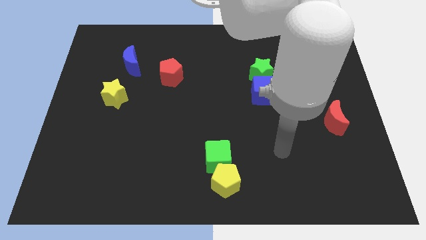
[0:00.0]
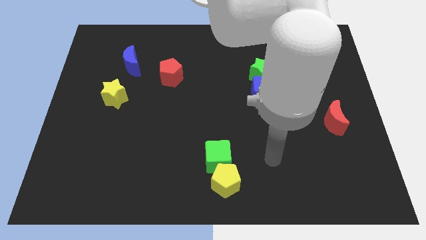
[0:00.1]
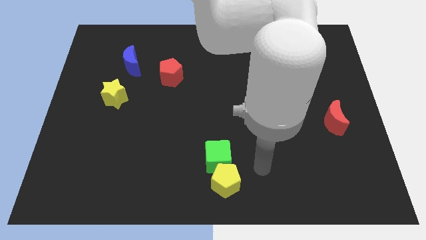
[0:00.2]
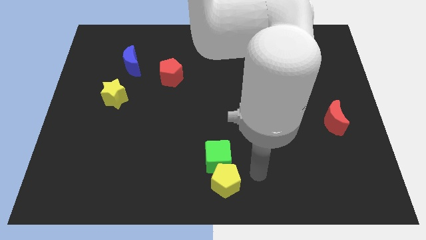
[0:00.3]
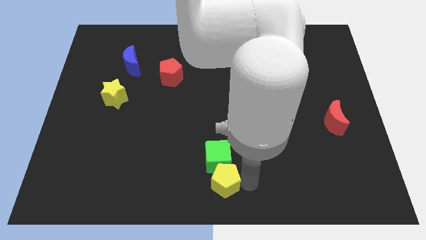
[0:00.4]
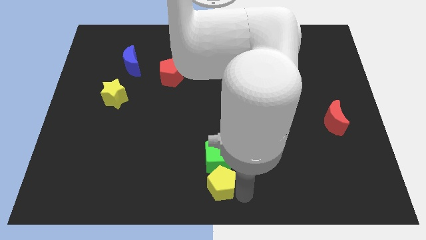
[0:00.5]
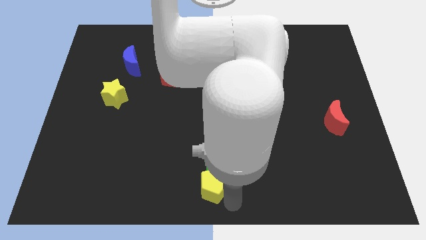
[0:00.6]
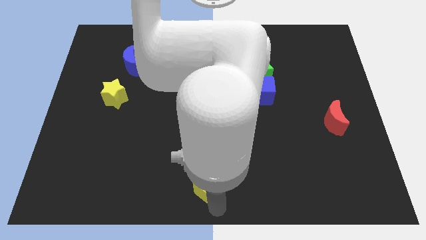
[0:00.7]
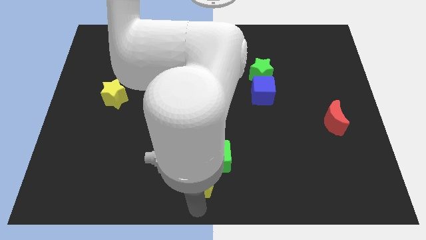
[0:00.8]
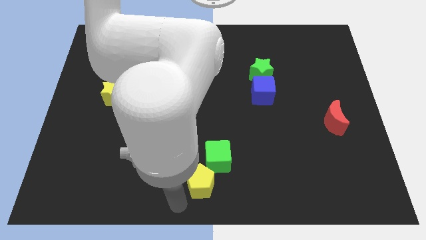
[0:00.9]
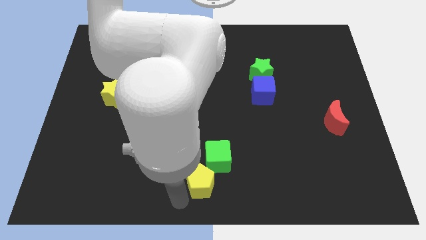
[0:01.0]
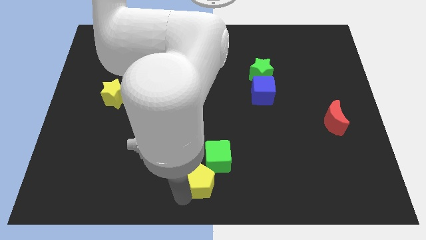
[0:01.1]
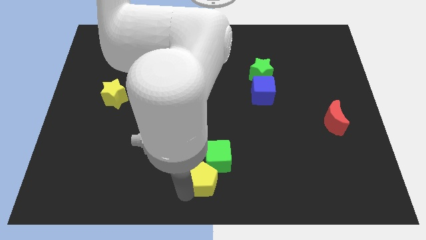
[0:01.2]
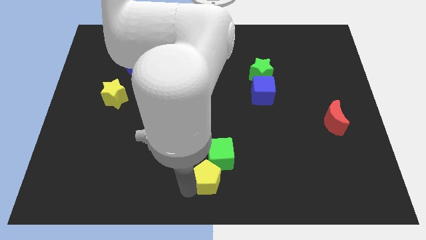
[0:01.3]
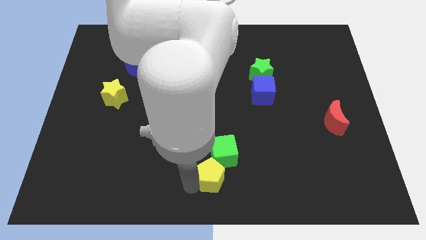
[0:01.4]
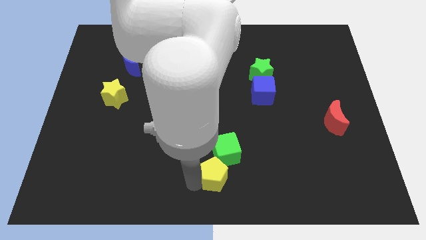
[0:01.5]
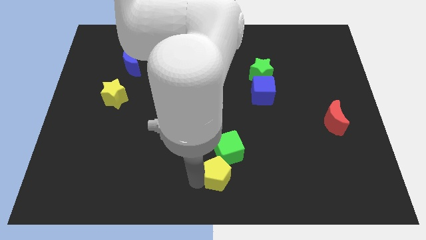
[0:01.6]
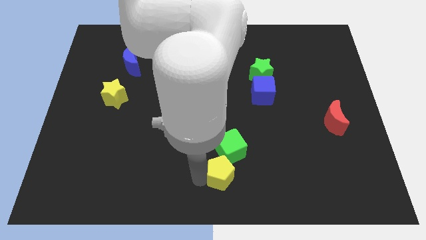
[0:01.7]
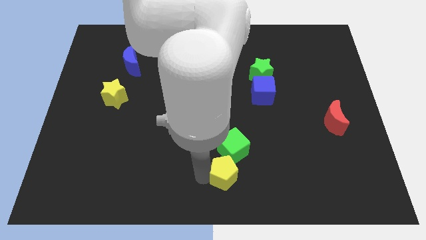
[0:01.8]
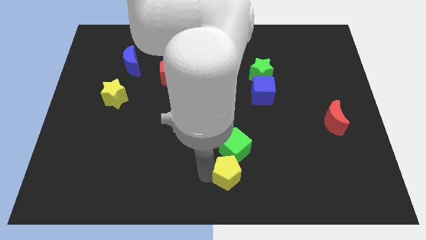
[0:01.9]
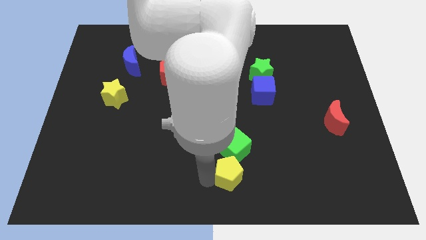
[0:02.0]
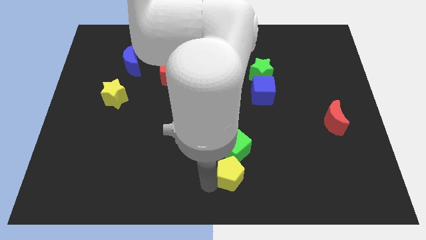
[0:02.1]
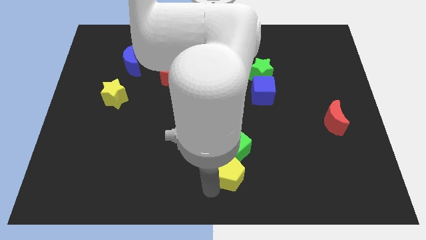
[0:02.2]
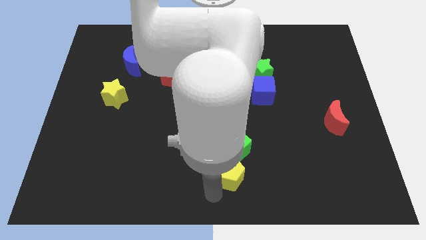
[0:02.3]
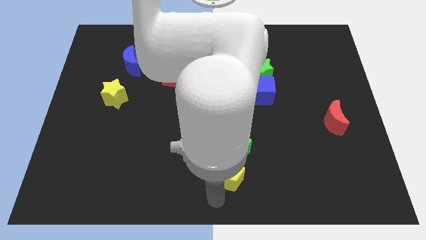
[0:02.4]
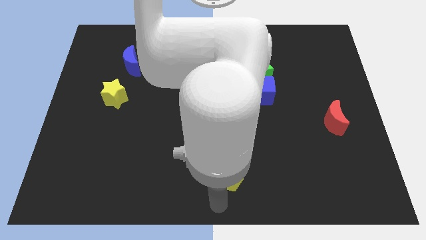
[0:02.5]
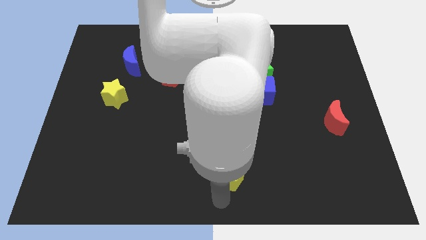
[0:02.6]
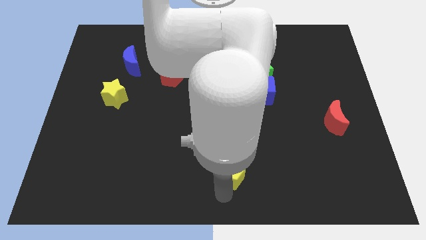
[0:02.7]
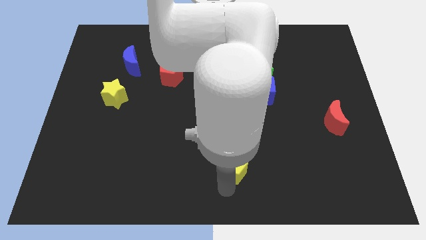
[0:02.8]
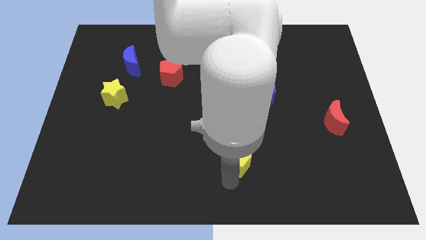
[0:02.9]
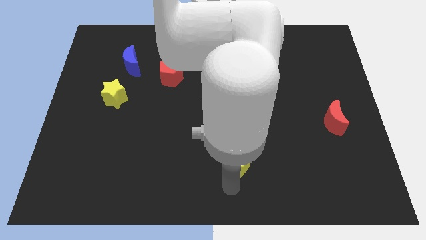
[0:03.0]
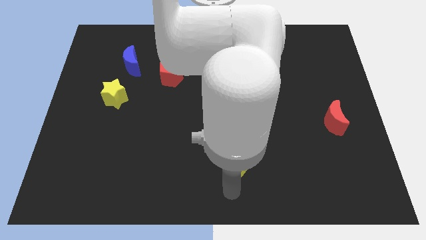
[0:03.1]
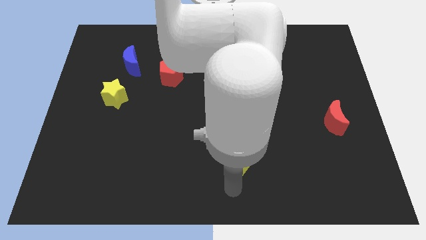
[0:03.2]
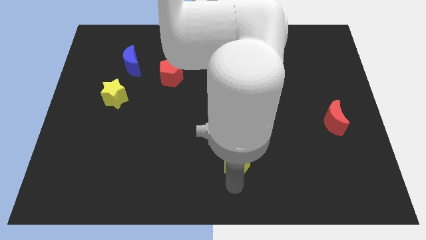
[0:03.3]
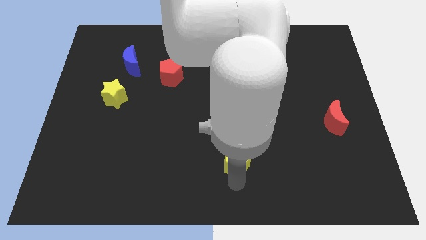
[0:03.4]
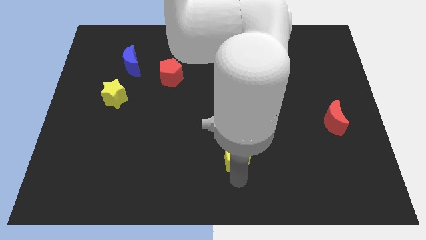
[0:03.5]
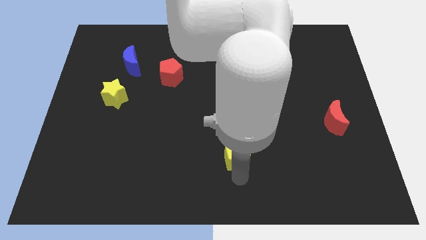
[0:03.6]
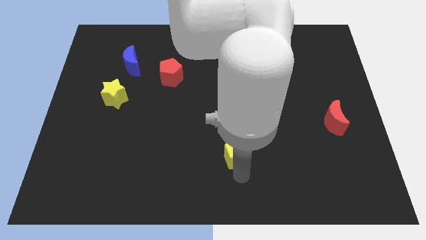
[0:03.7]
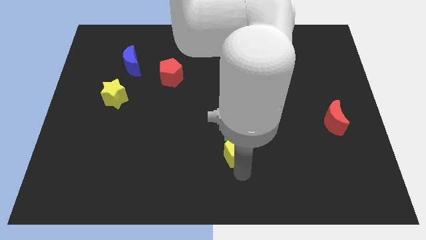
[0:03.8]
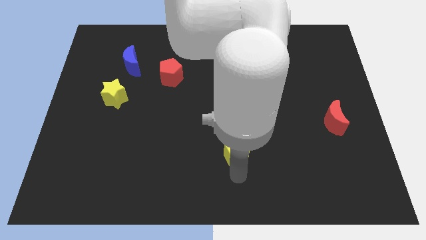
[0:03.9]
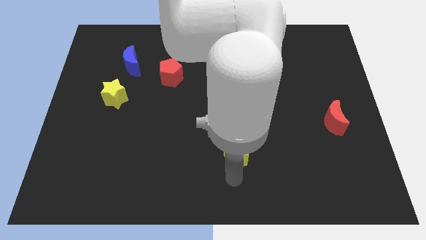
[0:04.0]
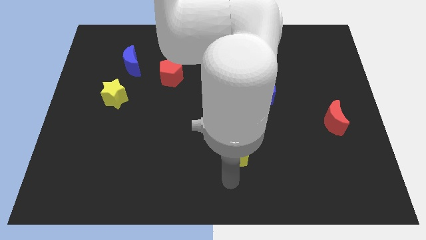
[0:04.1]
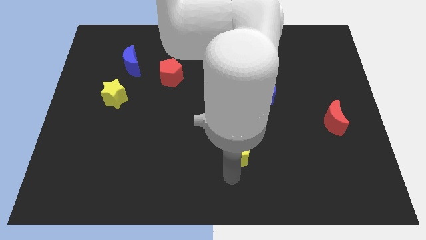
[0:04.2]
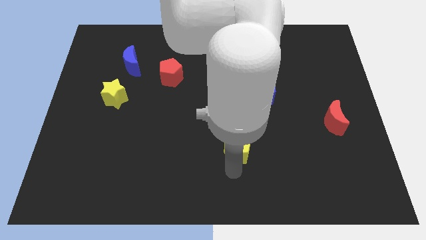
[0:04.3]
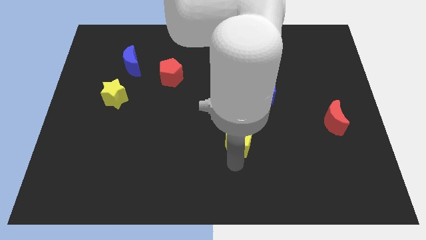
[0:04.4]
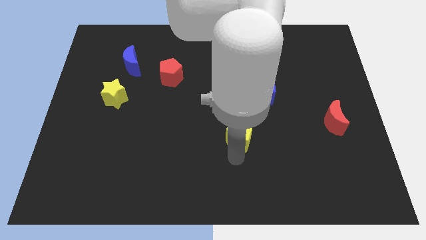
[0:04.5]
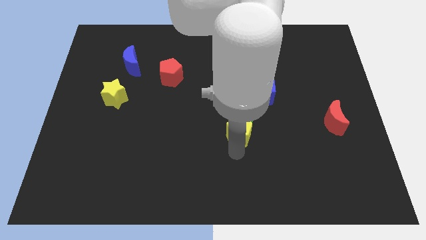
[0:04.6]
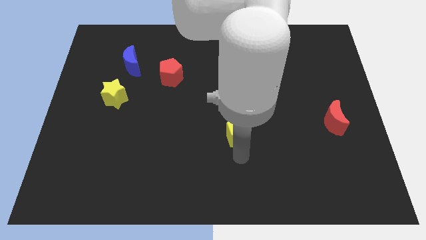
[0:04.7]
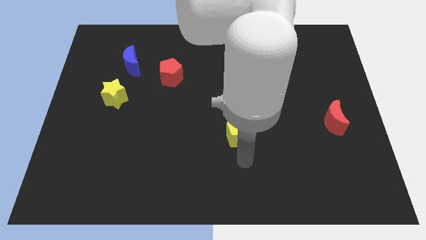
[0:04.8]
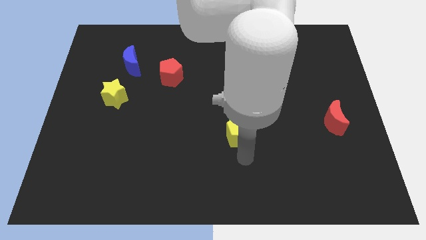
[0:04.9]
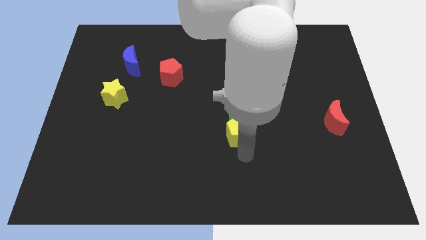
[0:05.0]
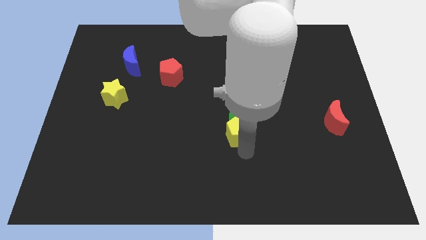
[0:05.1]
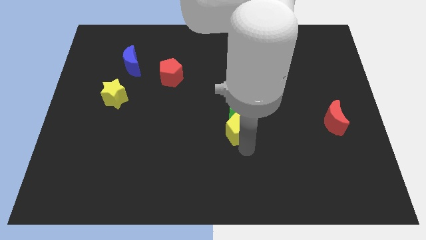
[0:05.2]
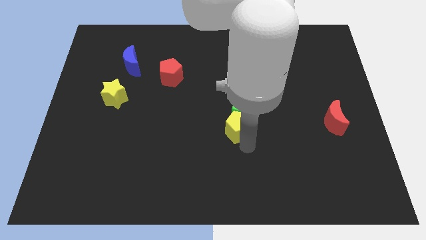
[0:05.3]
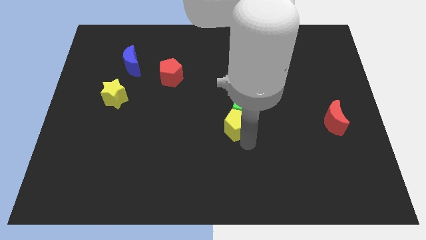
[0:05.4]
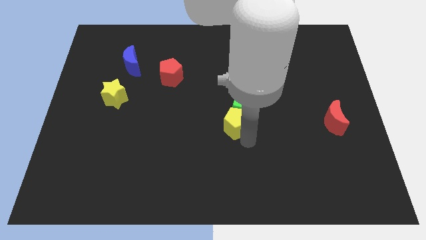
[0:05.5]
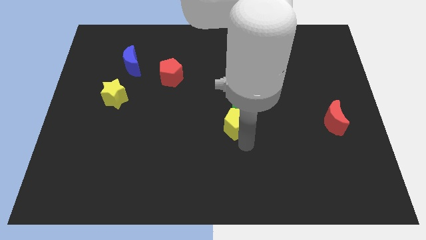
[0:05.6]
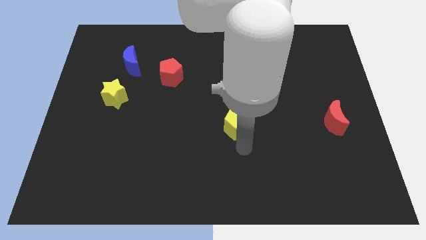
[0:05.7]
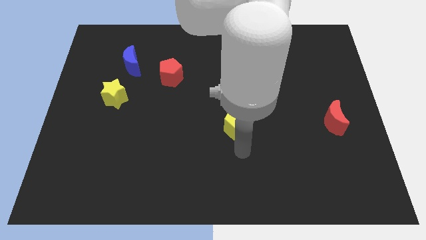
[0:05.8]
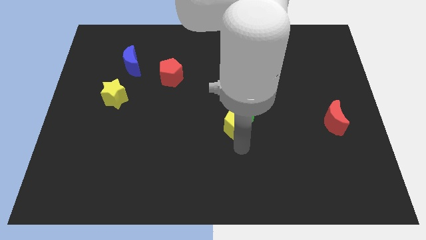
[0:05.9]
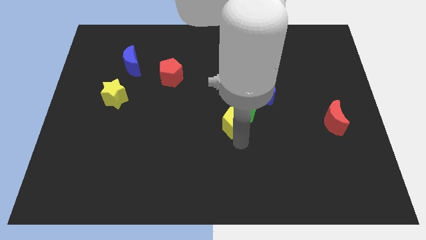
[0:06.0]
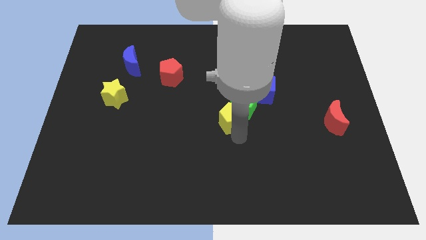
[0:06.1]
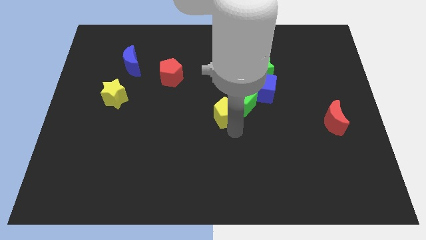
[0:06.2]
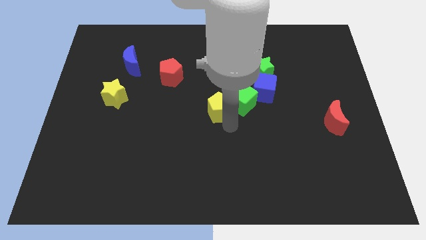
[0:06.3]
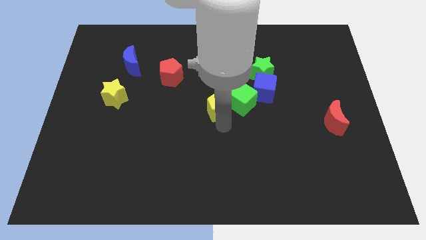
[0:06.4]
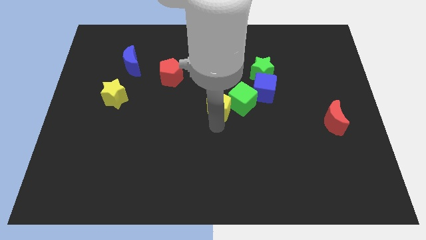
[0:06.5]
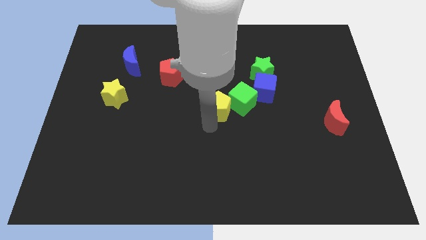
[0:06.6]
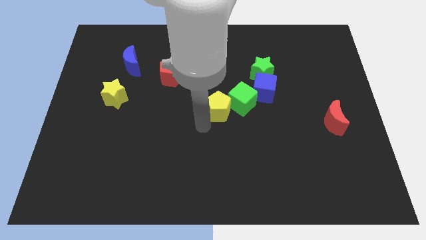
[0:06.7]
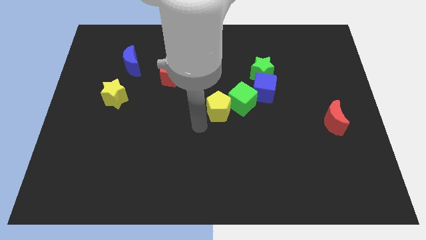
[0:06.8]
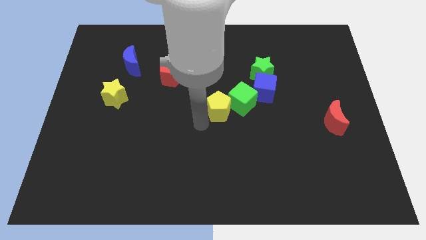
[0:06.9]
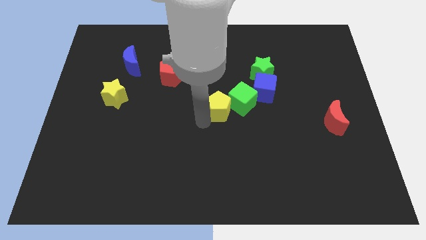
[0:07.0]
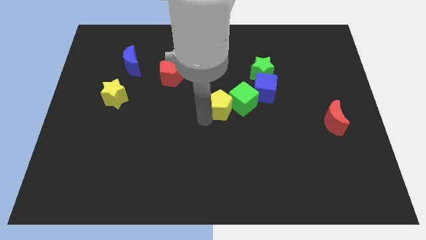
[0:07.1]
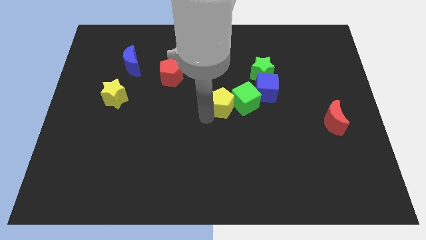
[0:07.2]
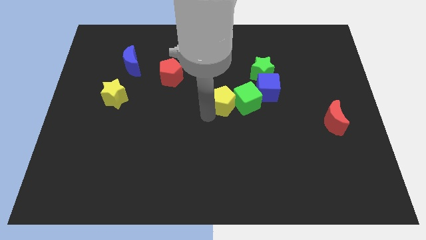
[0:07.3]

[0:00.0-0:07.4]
move the yellow pentagon upwards

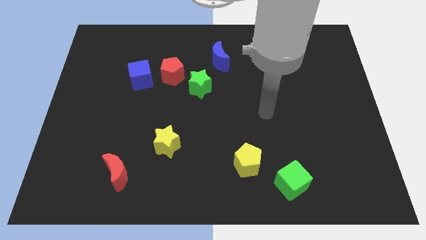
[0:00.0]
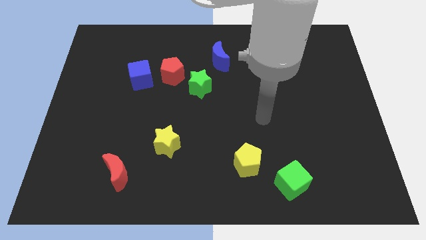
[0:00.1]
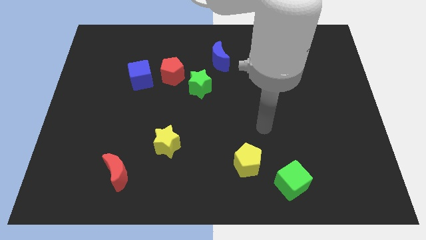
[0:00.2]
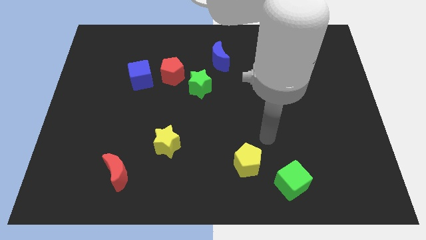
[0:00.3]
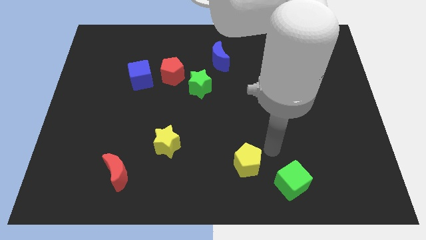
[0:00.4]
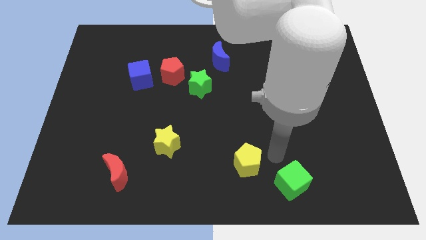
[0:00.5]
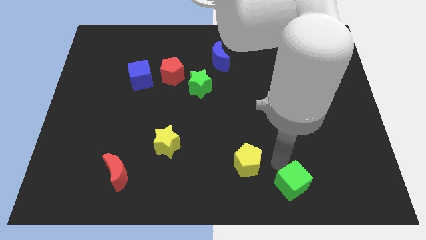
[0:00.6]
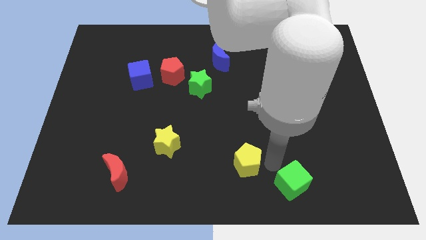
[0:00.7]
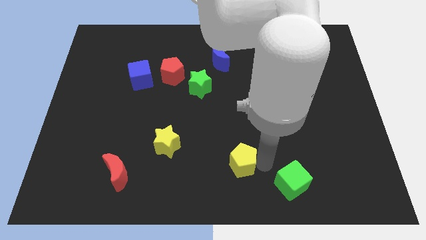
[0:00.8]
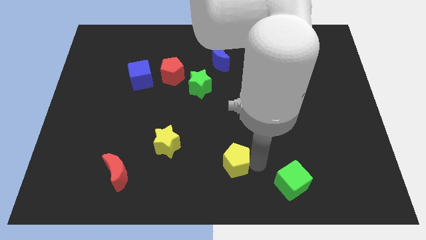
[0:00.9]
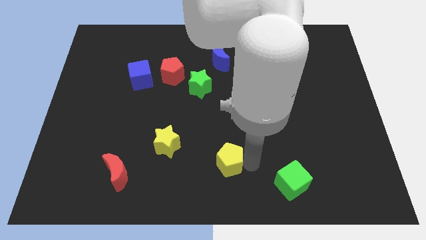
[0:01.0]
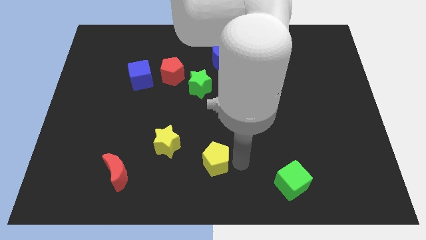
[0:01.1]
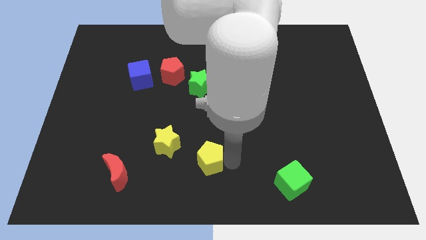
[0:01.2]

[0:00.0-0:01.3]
slightly move the yellow pentagon to the left

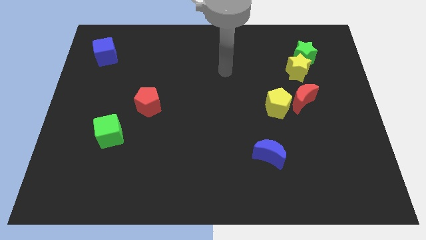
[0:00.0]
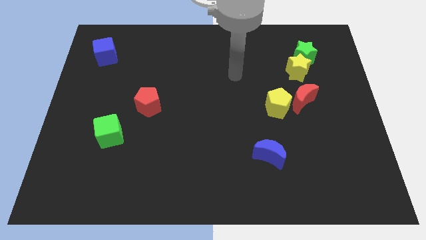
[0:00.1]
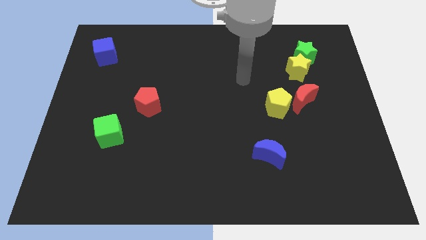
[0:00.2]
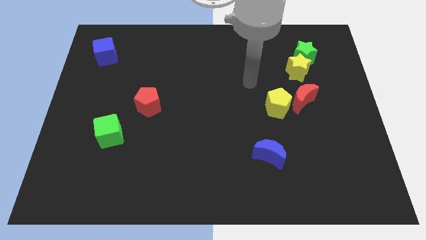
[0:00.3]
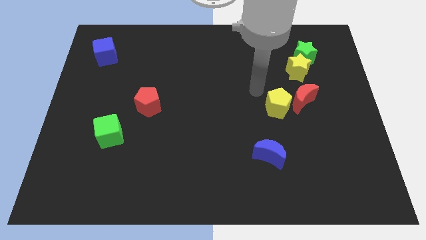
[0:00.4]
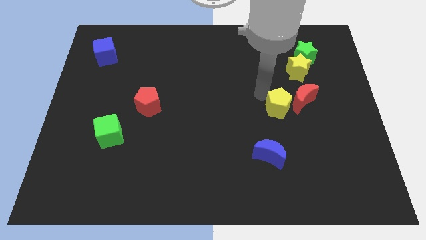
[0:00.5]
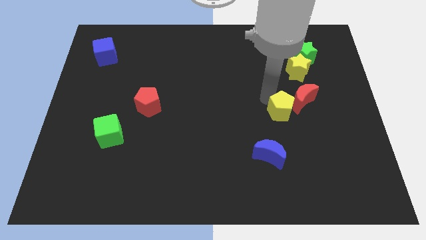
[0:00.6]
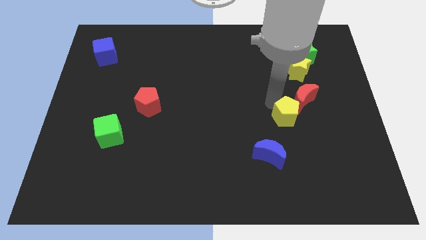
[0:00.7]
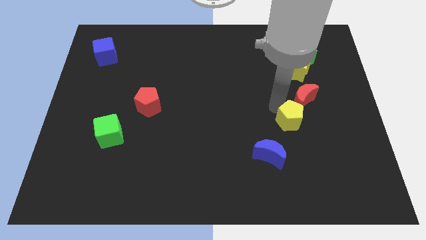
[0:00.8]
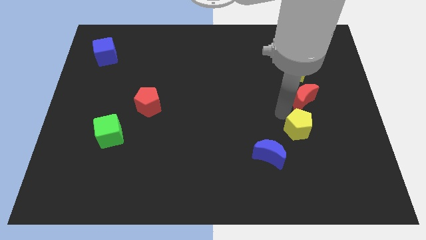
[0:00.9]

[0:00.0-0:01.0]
push the yellow pentagon down and to the right diagonally a little bit
